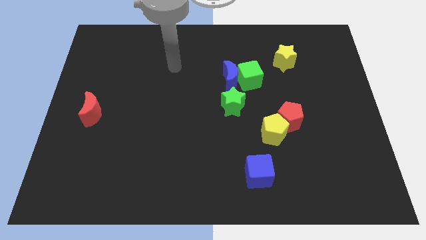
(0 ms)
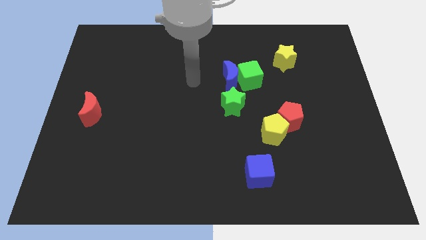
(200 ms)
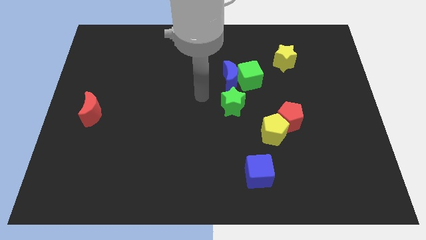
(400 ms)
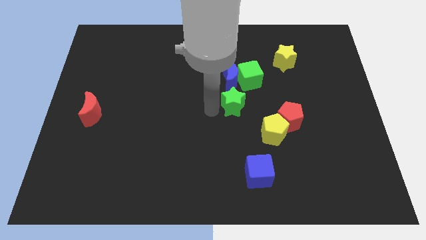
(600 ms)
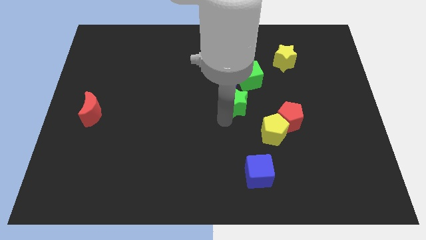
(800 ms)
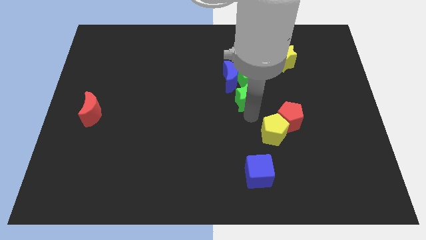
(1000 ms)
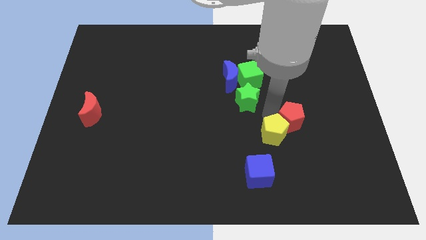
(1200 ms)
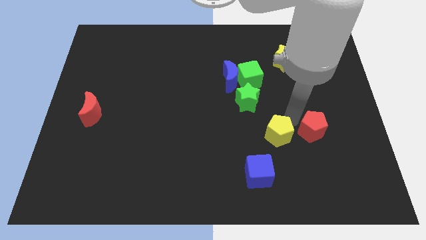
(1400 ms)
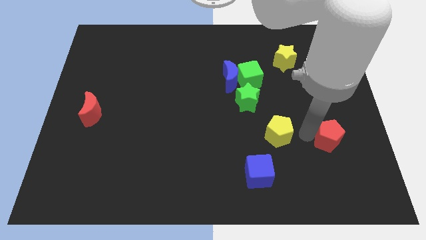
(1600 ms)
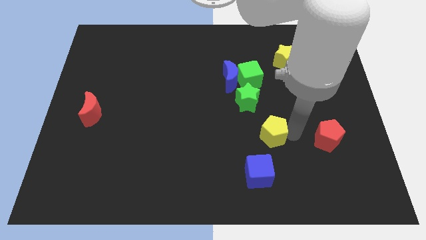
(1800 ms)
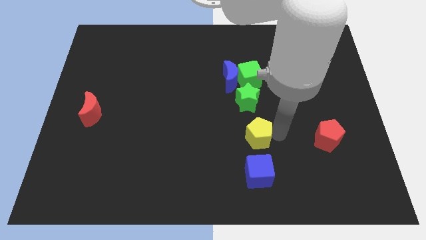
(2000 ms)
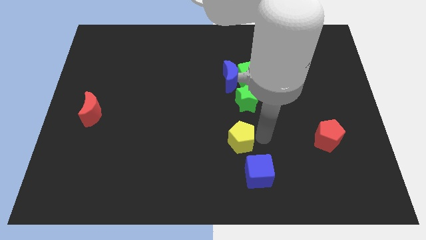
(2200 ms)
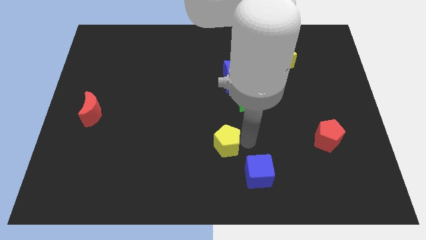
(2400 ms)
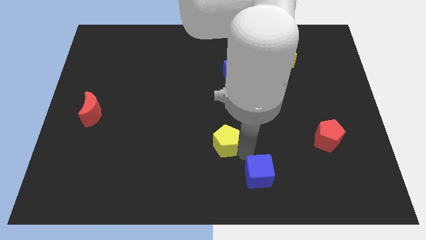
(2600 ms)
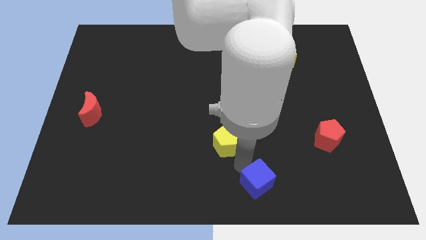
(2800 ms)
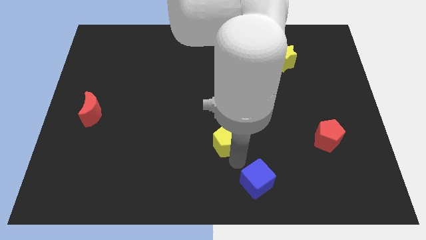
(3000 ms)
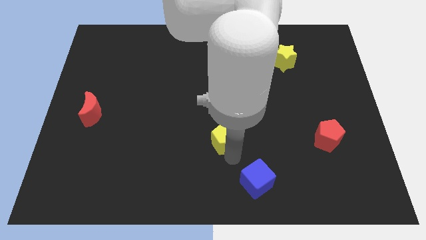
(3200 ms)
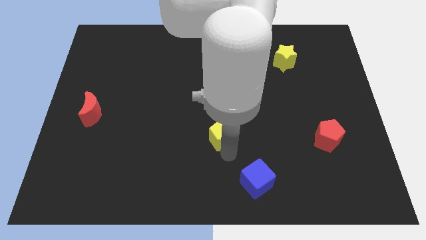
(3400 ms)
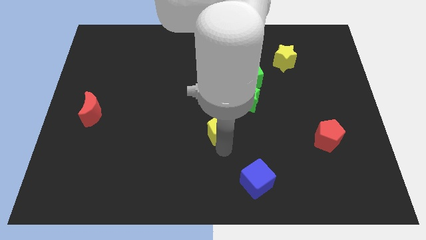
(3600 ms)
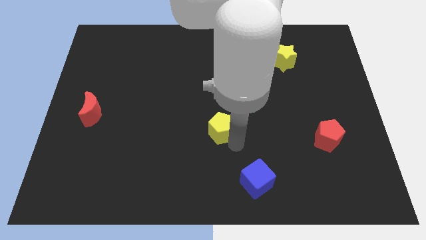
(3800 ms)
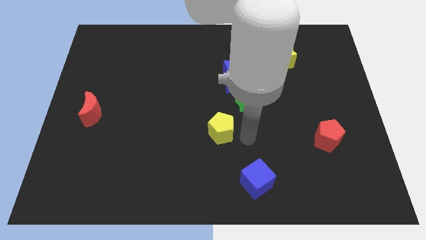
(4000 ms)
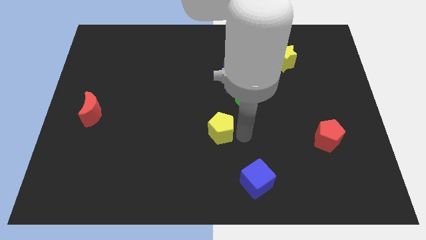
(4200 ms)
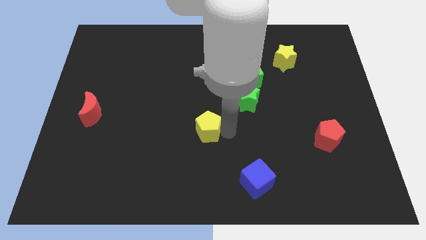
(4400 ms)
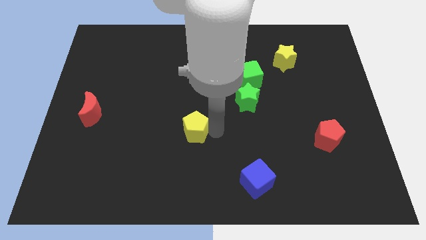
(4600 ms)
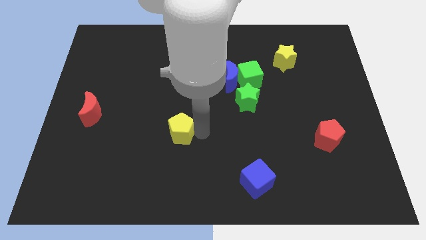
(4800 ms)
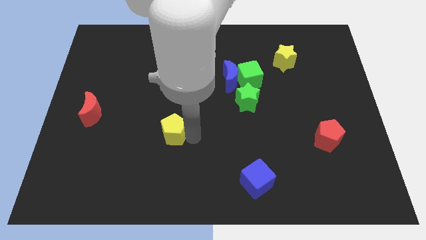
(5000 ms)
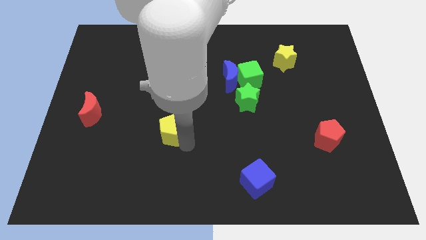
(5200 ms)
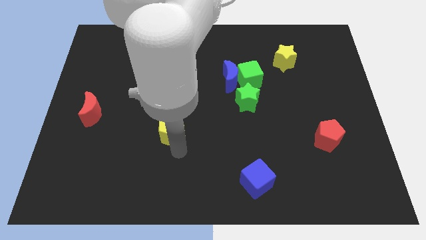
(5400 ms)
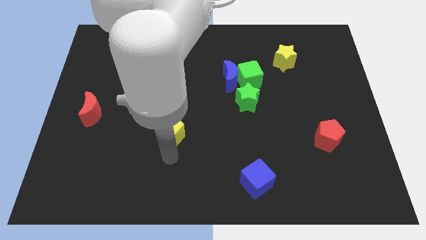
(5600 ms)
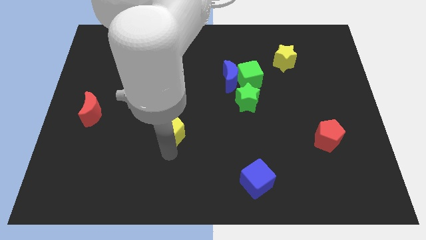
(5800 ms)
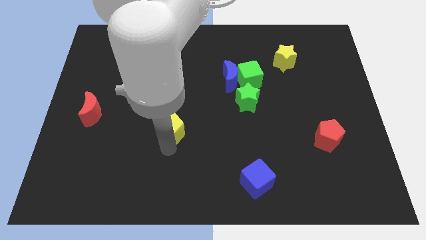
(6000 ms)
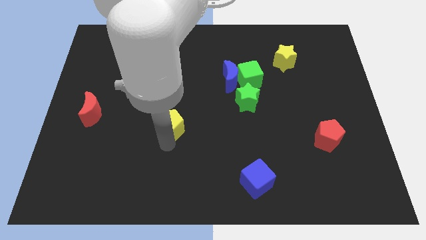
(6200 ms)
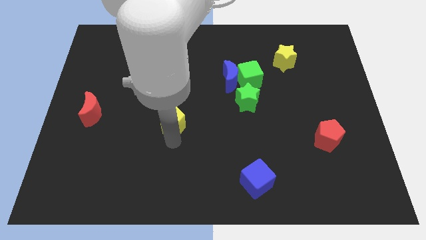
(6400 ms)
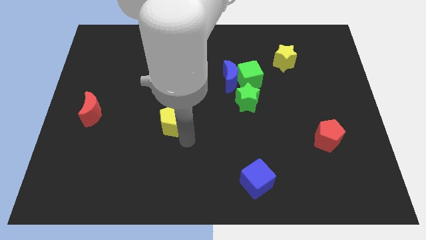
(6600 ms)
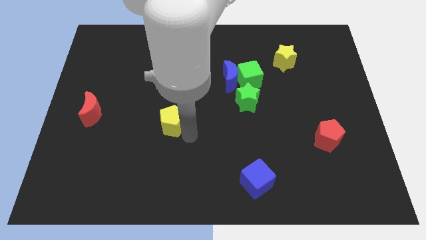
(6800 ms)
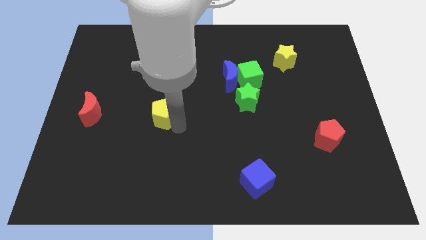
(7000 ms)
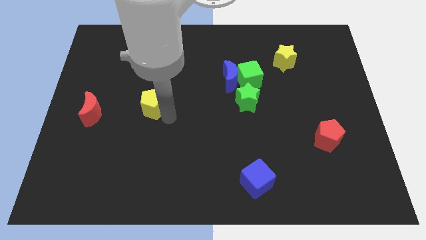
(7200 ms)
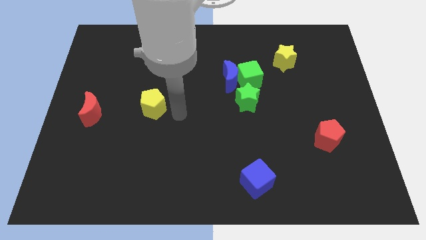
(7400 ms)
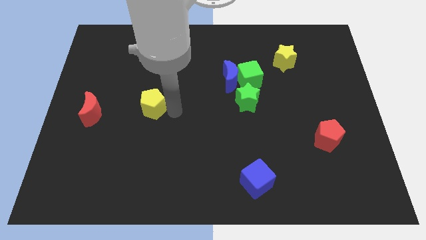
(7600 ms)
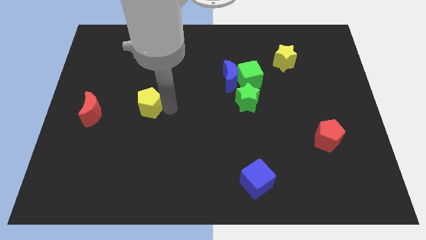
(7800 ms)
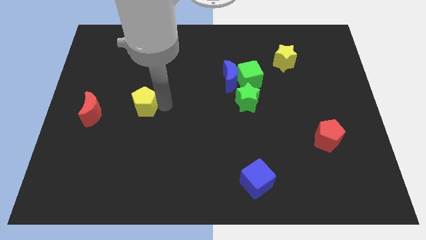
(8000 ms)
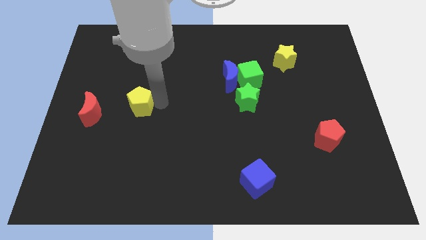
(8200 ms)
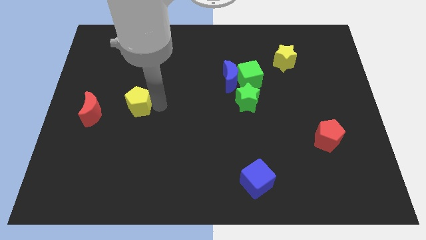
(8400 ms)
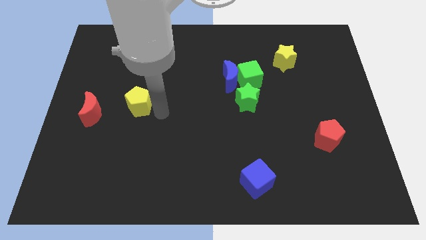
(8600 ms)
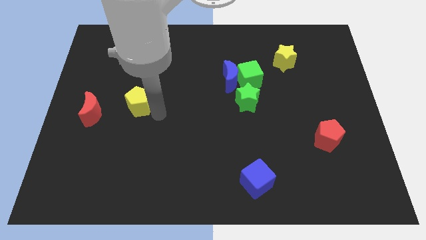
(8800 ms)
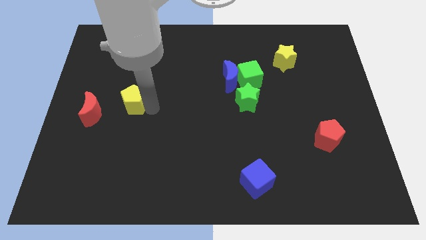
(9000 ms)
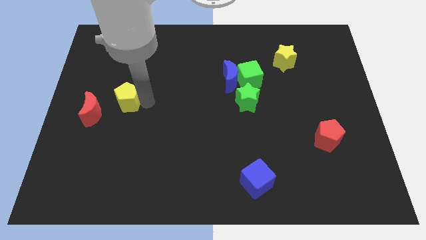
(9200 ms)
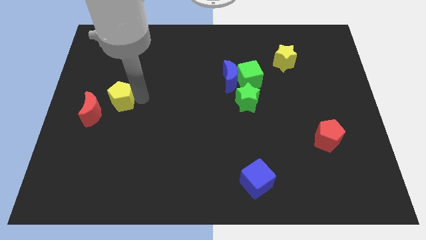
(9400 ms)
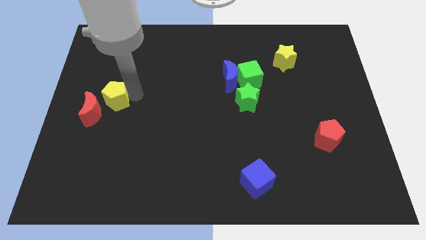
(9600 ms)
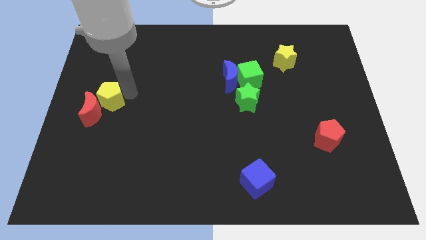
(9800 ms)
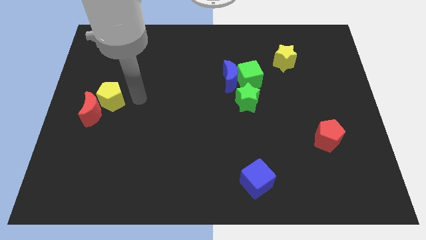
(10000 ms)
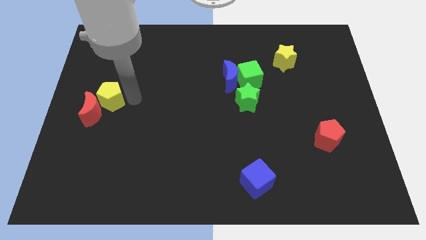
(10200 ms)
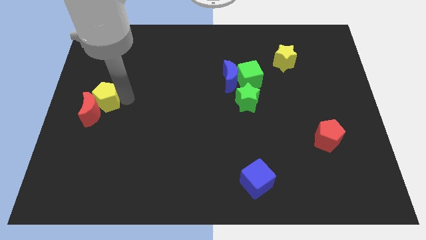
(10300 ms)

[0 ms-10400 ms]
push the yellow pentagon to the left side of the board
